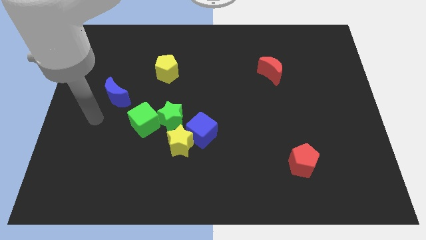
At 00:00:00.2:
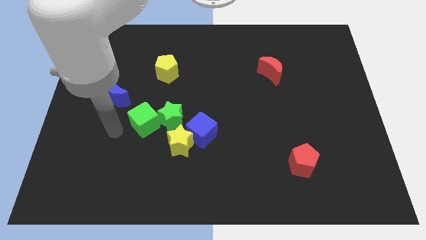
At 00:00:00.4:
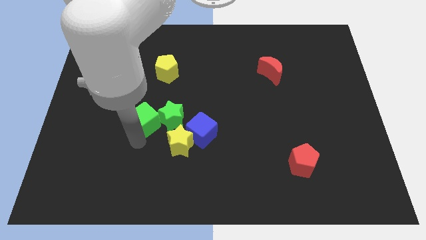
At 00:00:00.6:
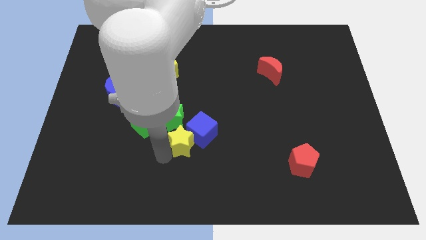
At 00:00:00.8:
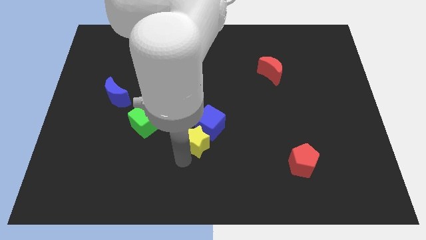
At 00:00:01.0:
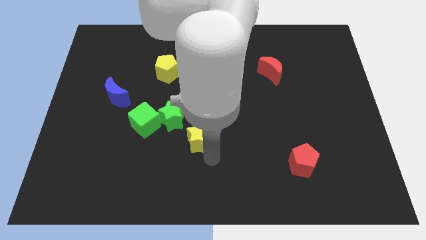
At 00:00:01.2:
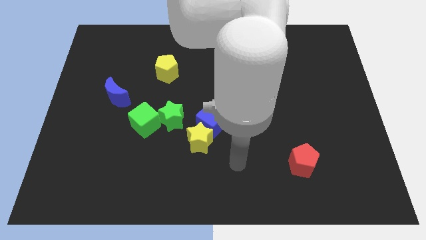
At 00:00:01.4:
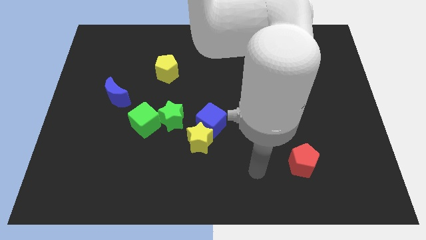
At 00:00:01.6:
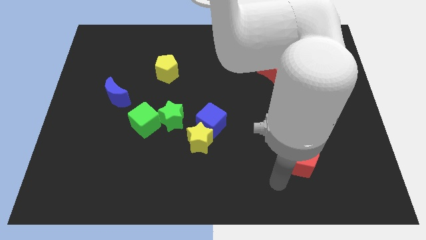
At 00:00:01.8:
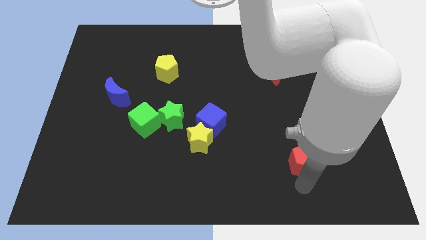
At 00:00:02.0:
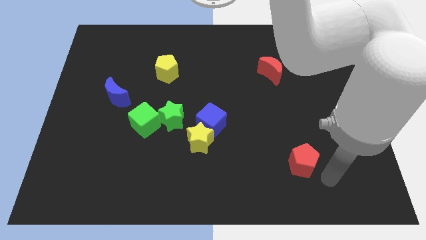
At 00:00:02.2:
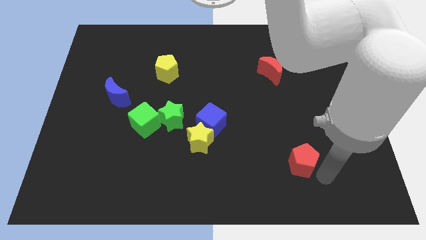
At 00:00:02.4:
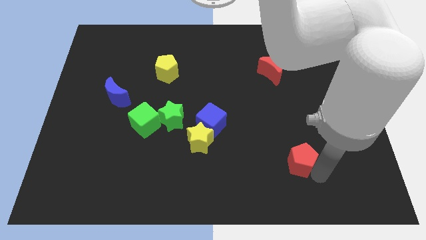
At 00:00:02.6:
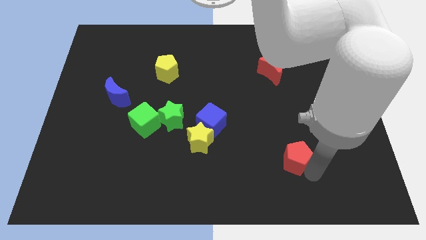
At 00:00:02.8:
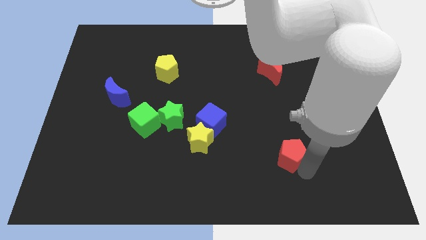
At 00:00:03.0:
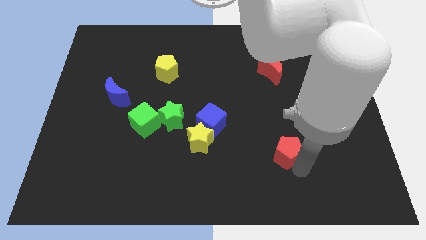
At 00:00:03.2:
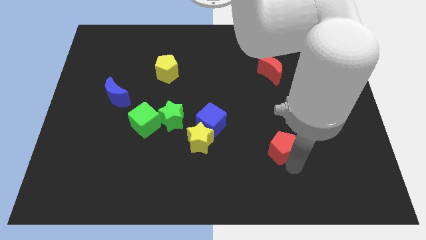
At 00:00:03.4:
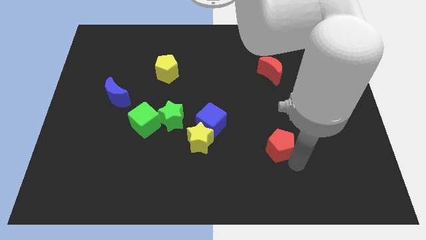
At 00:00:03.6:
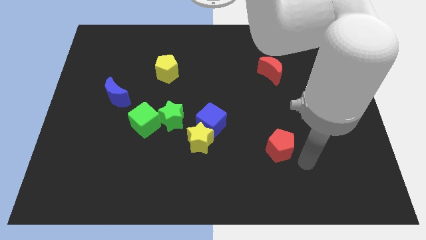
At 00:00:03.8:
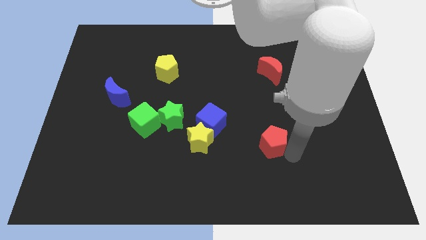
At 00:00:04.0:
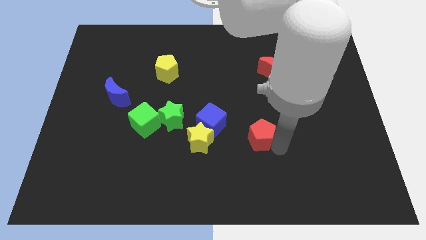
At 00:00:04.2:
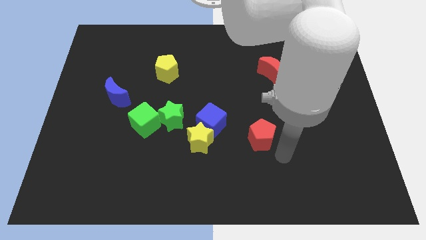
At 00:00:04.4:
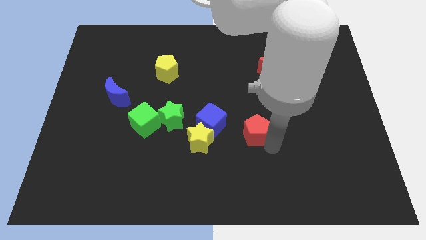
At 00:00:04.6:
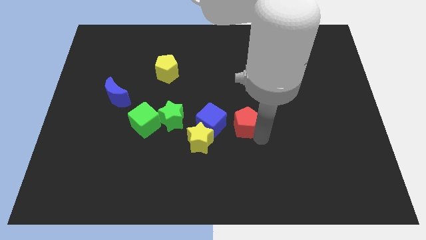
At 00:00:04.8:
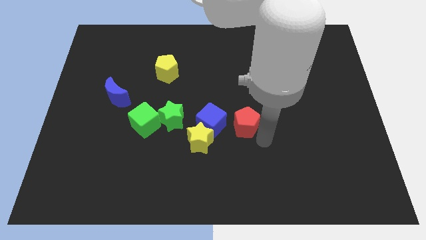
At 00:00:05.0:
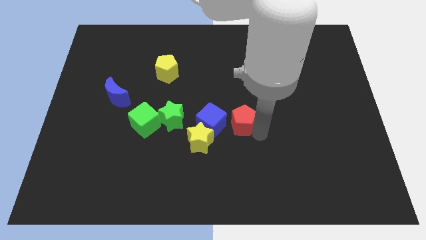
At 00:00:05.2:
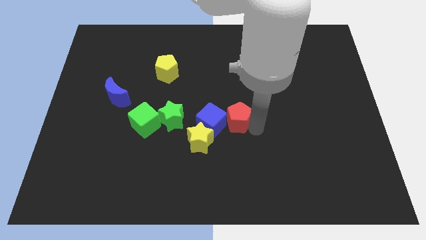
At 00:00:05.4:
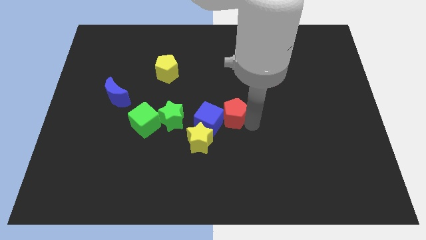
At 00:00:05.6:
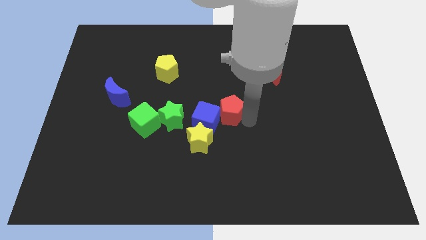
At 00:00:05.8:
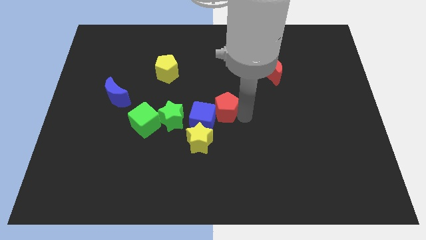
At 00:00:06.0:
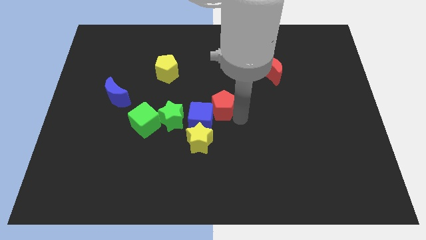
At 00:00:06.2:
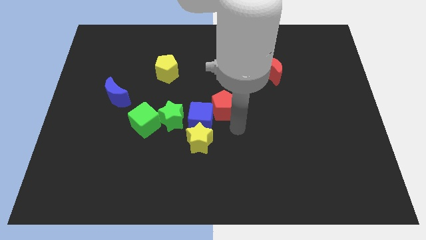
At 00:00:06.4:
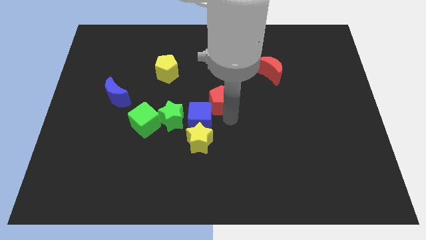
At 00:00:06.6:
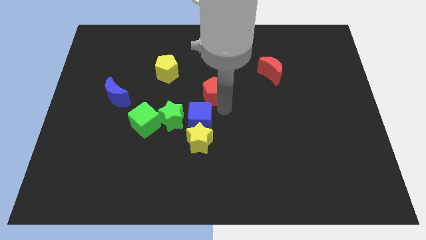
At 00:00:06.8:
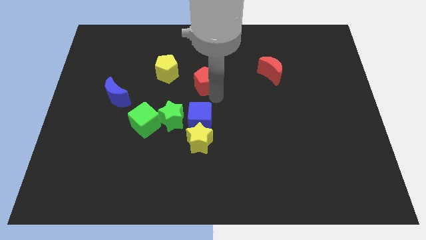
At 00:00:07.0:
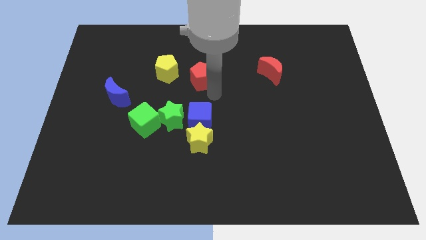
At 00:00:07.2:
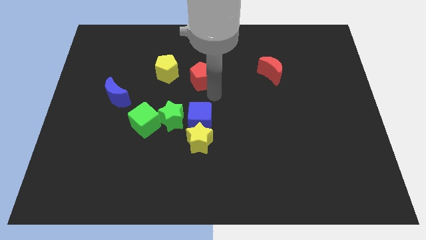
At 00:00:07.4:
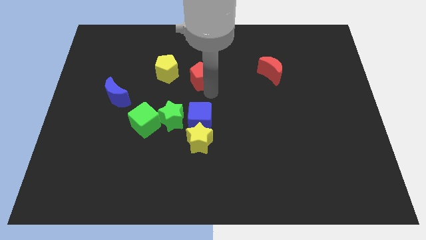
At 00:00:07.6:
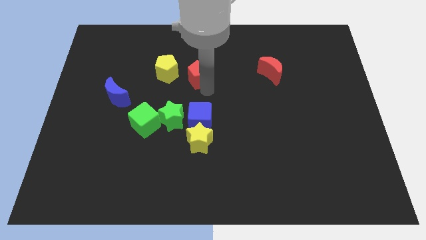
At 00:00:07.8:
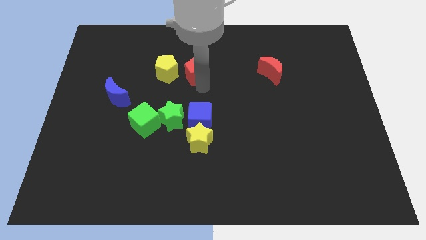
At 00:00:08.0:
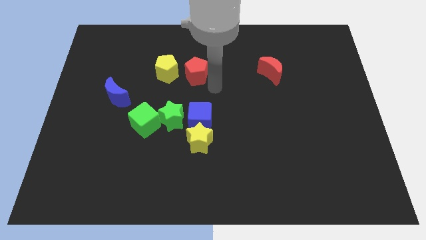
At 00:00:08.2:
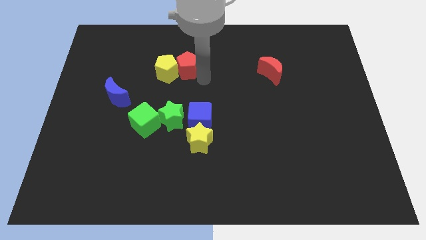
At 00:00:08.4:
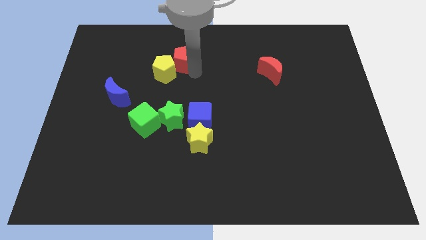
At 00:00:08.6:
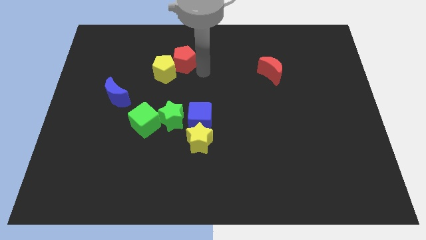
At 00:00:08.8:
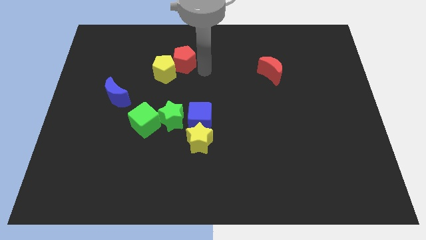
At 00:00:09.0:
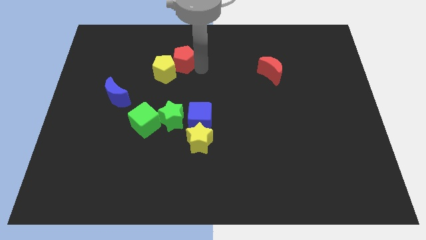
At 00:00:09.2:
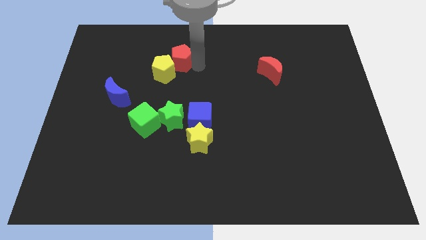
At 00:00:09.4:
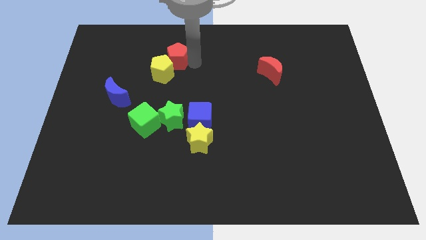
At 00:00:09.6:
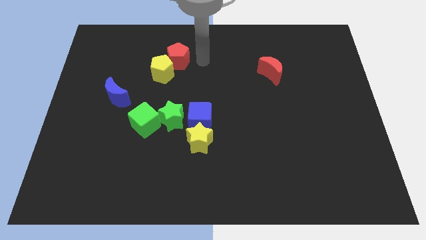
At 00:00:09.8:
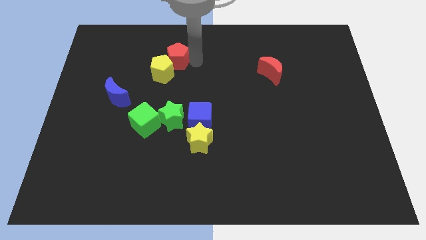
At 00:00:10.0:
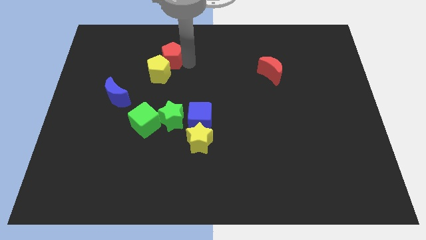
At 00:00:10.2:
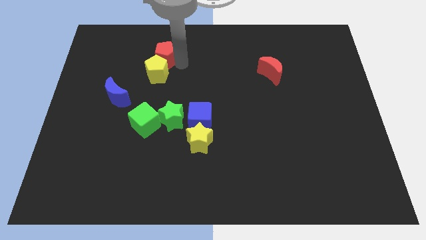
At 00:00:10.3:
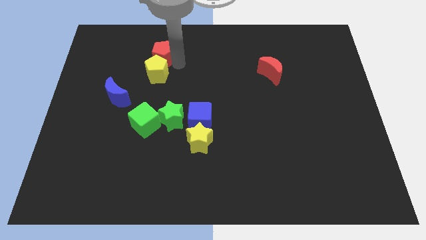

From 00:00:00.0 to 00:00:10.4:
slide the red pentagon diagonally up and to the left of the yellow pentagon

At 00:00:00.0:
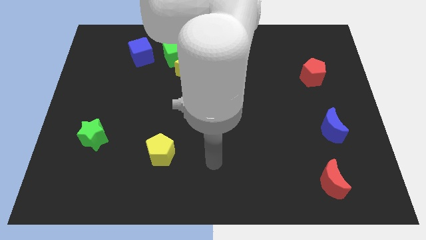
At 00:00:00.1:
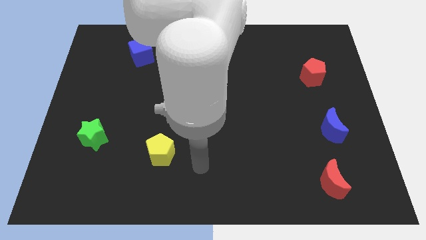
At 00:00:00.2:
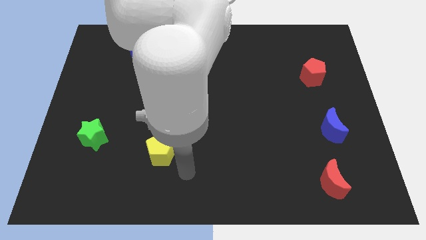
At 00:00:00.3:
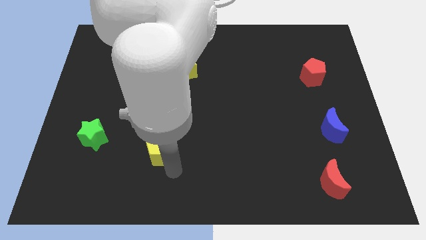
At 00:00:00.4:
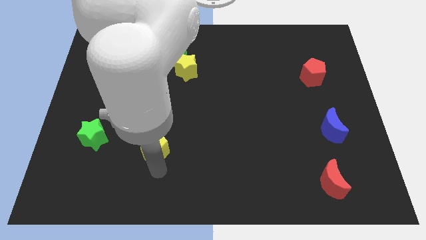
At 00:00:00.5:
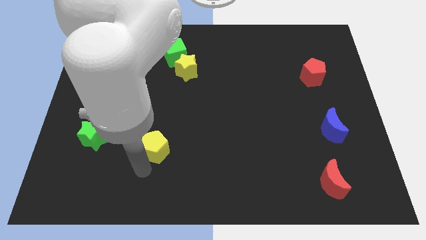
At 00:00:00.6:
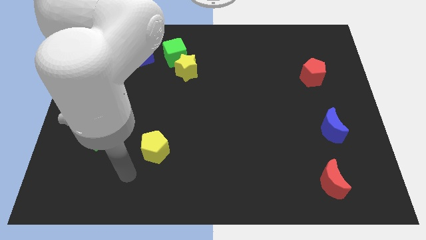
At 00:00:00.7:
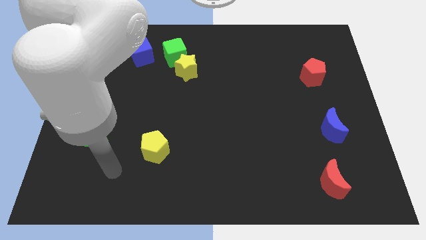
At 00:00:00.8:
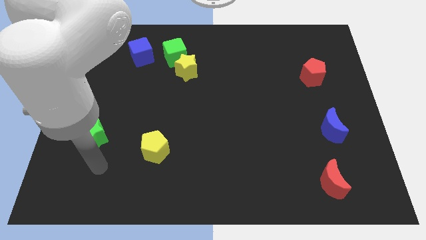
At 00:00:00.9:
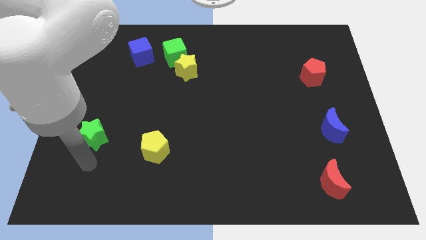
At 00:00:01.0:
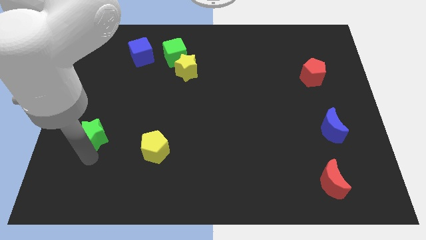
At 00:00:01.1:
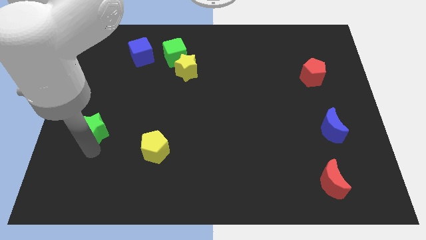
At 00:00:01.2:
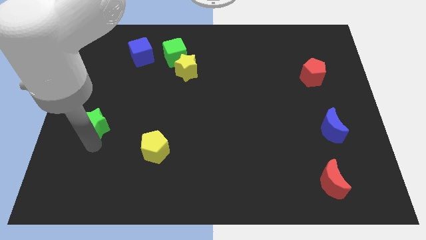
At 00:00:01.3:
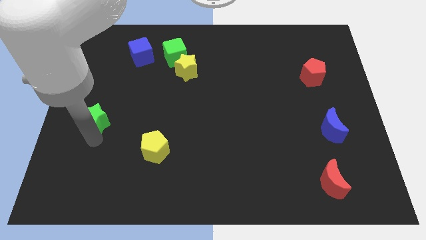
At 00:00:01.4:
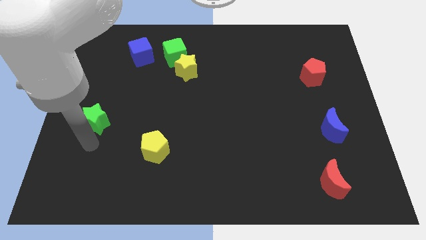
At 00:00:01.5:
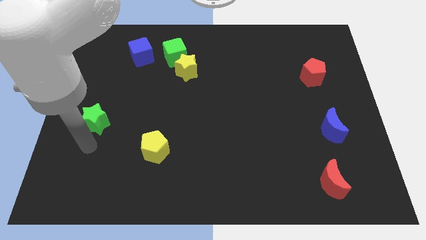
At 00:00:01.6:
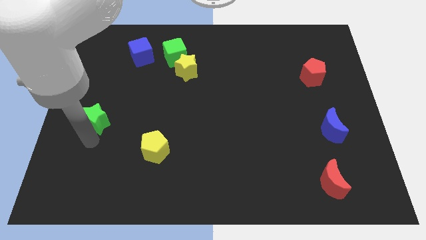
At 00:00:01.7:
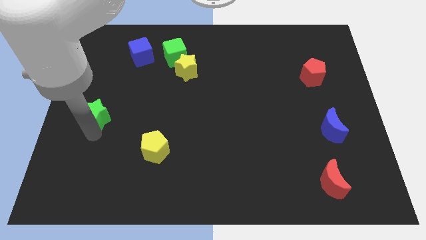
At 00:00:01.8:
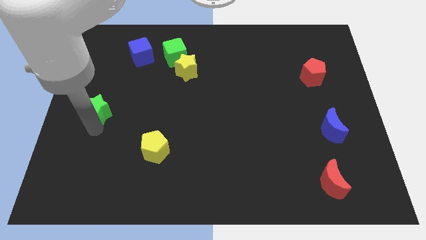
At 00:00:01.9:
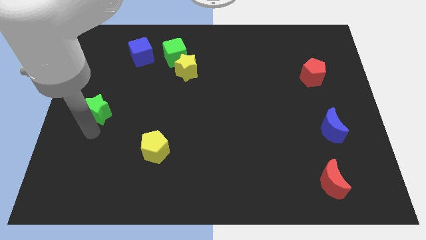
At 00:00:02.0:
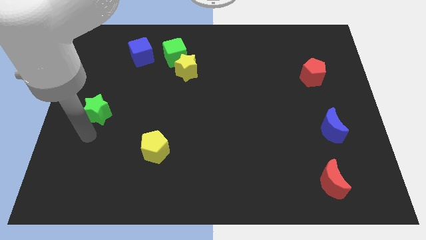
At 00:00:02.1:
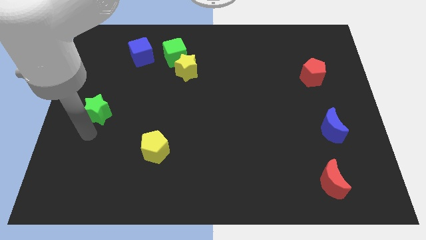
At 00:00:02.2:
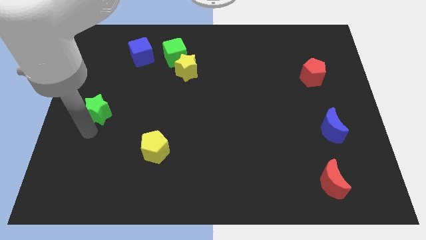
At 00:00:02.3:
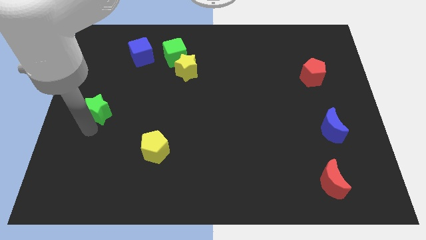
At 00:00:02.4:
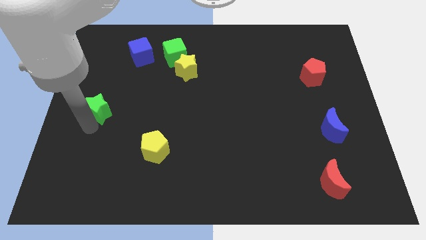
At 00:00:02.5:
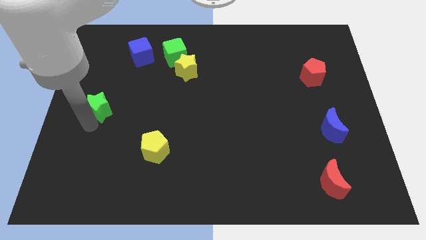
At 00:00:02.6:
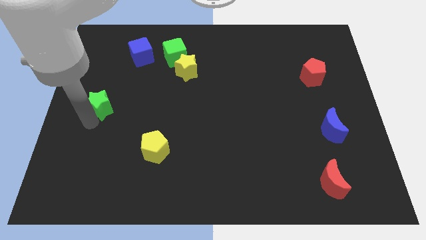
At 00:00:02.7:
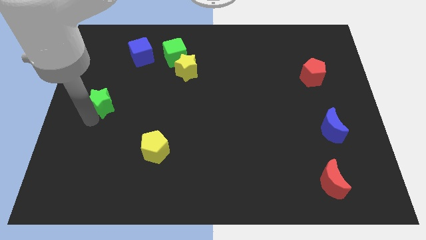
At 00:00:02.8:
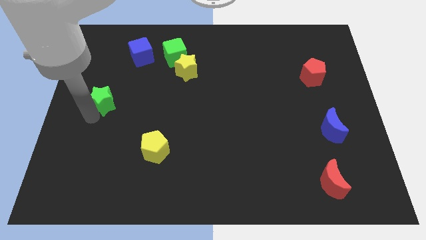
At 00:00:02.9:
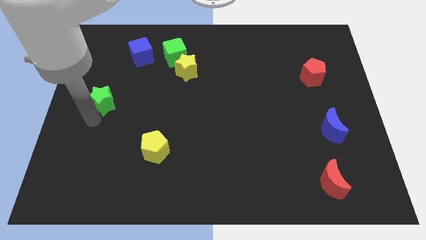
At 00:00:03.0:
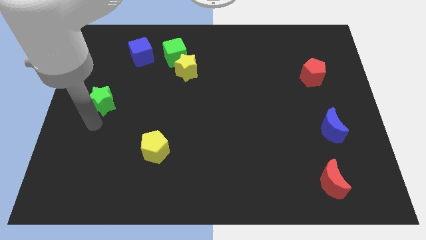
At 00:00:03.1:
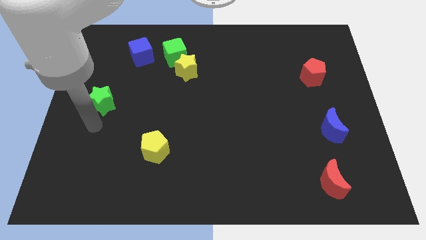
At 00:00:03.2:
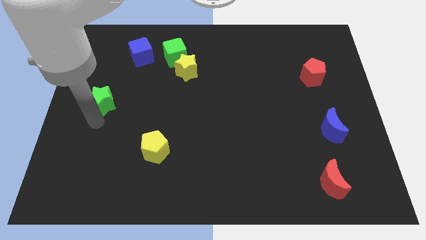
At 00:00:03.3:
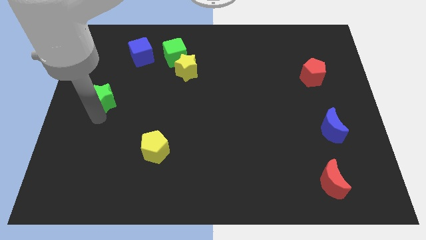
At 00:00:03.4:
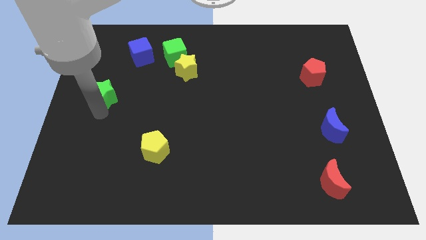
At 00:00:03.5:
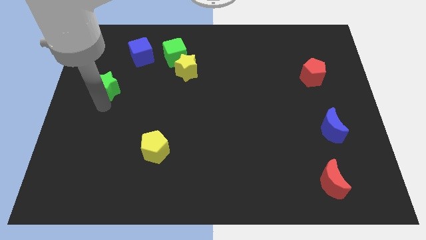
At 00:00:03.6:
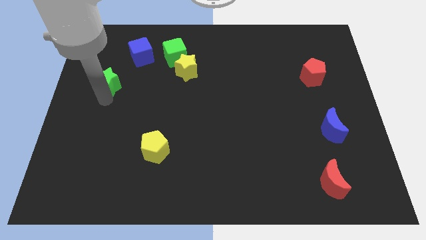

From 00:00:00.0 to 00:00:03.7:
put the green star to the bottom left of the blue cube
